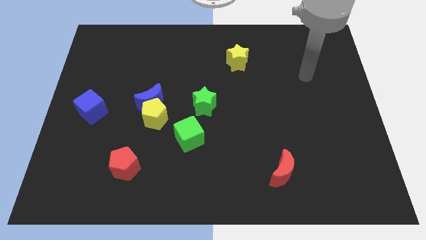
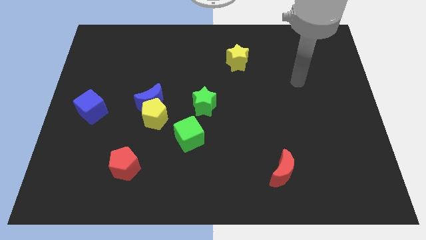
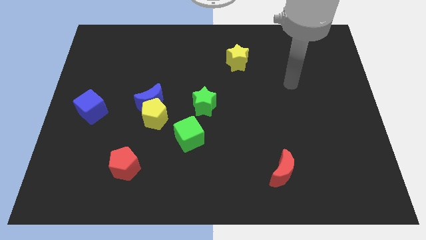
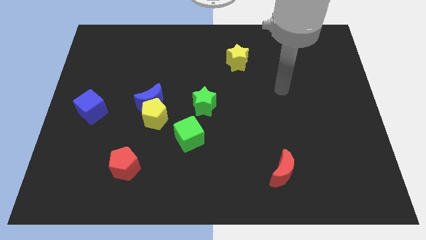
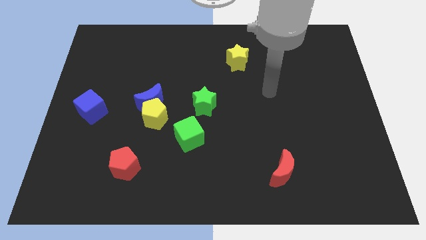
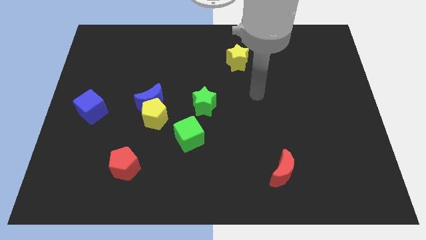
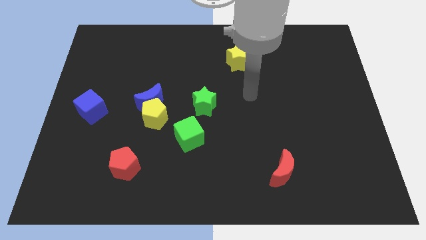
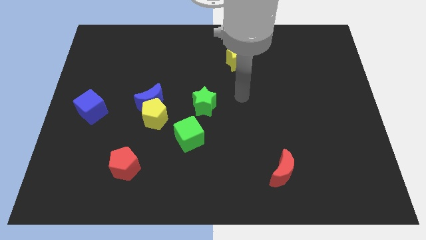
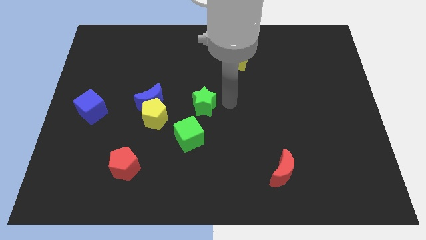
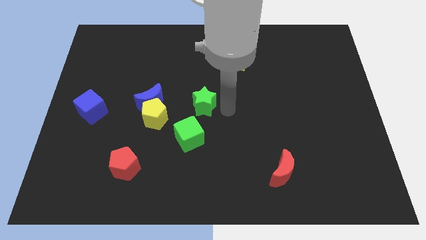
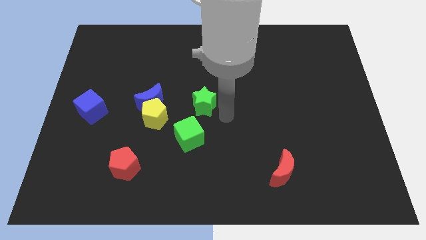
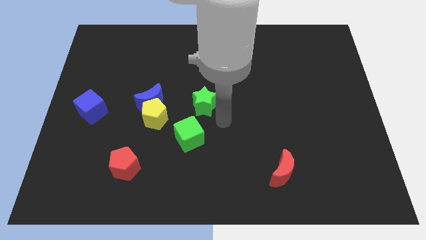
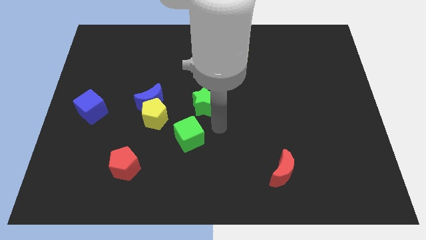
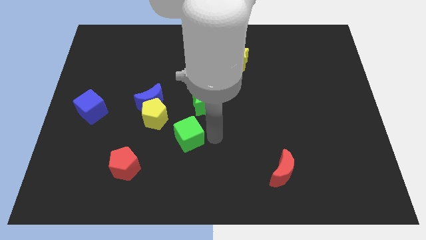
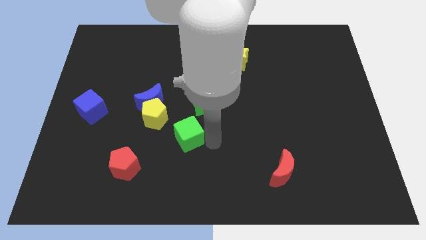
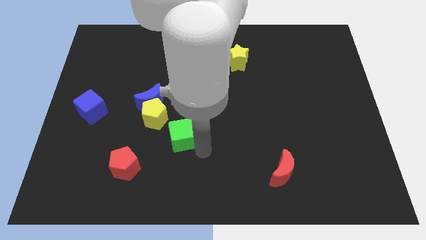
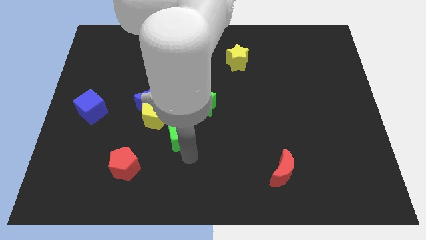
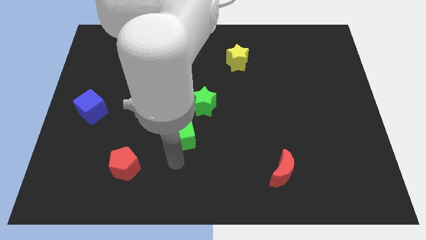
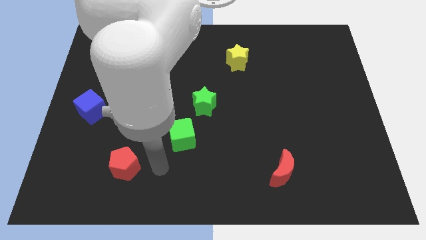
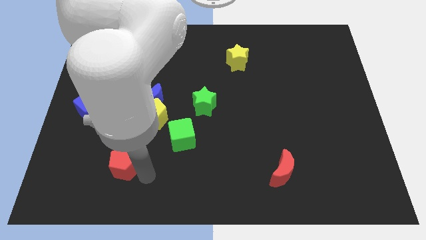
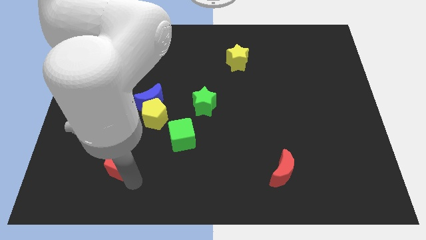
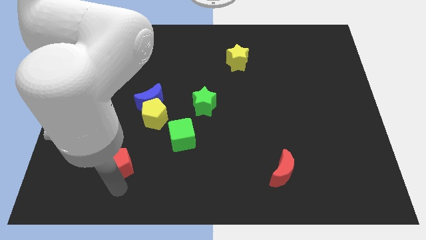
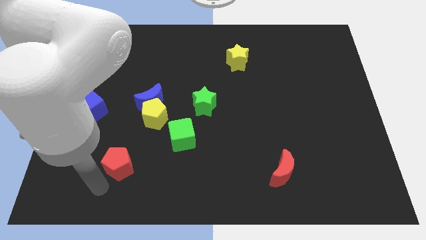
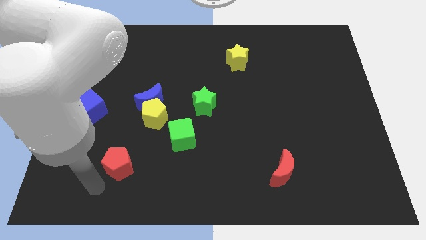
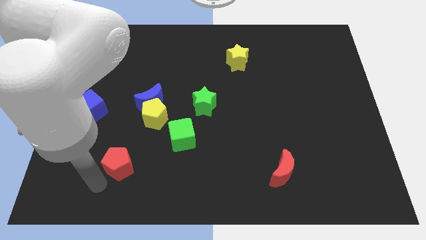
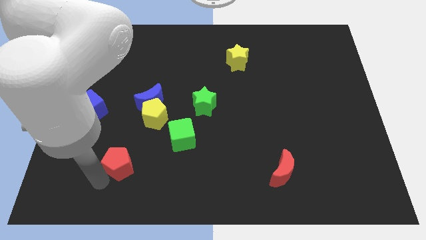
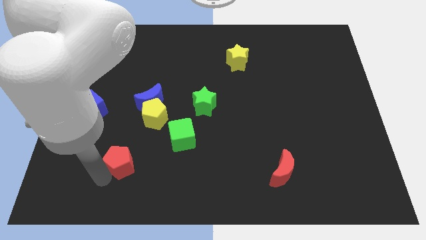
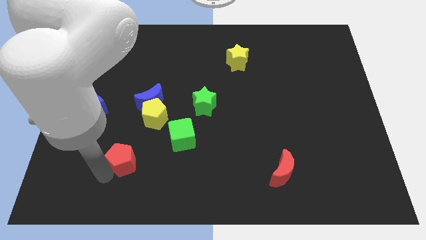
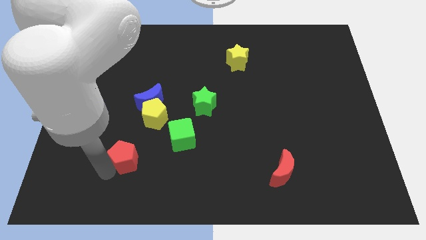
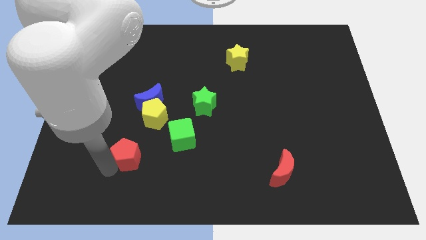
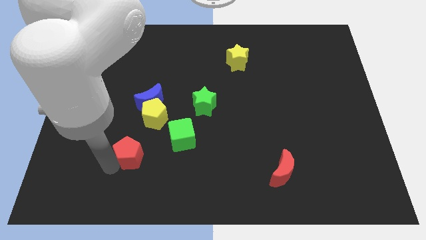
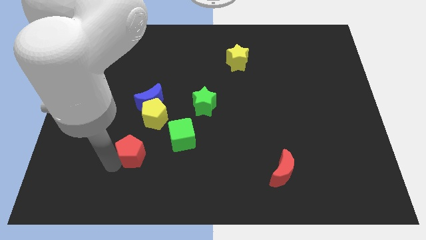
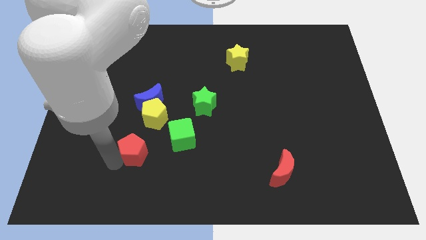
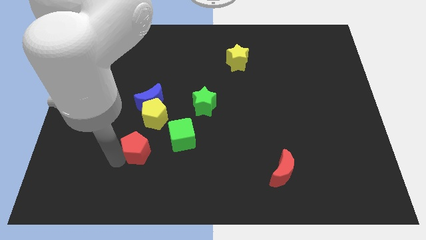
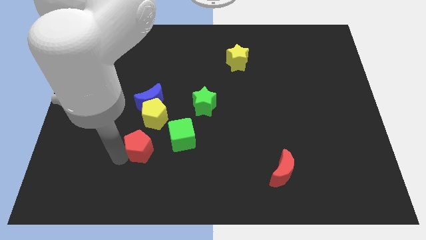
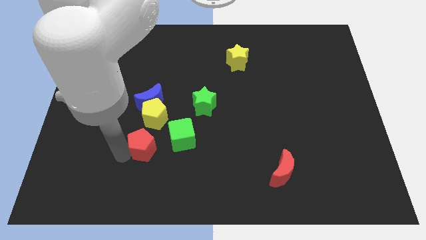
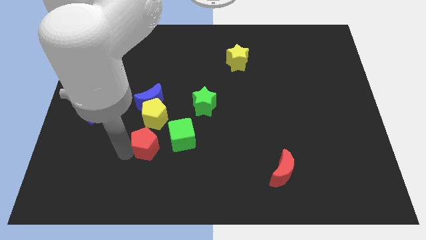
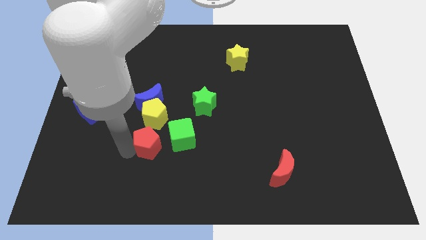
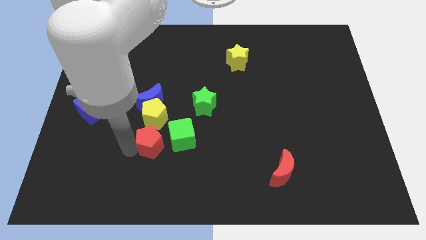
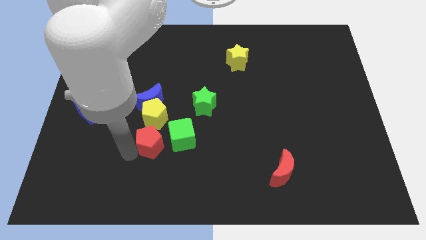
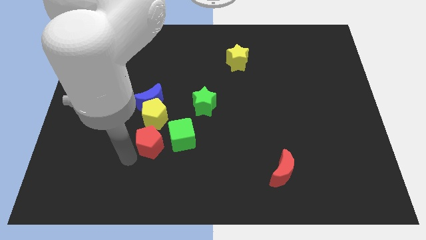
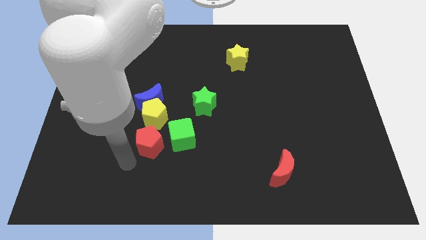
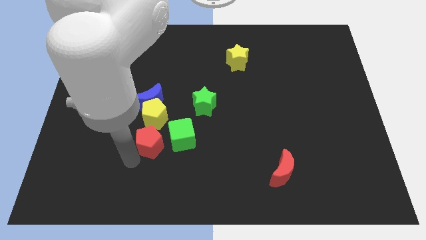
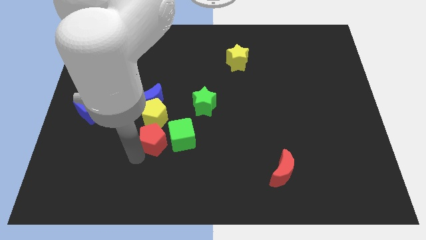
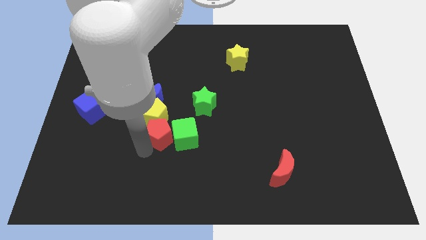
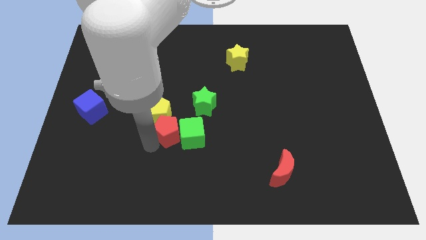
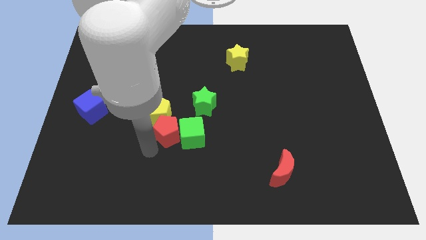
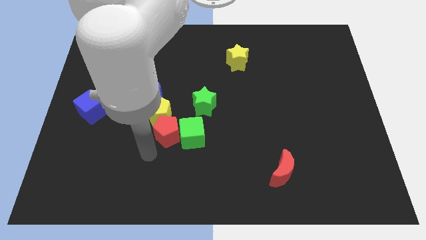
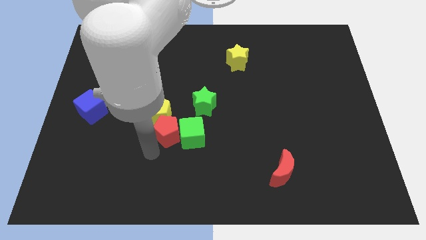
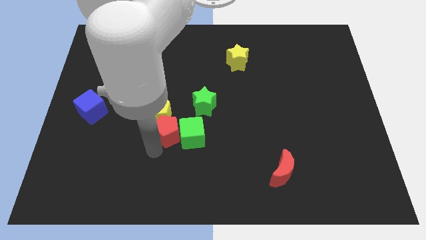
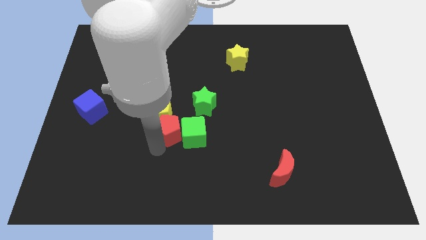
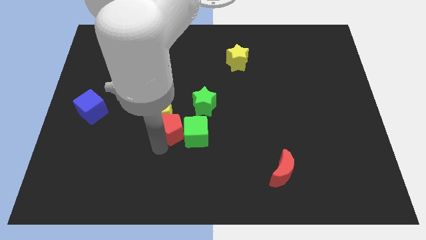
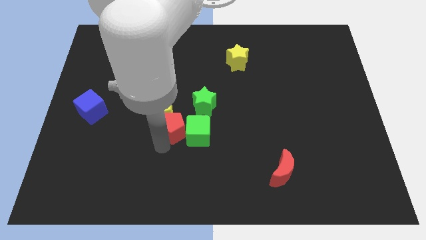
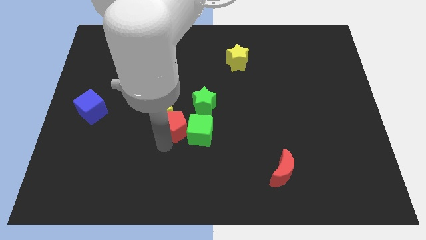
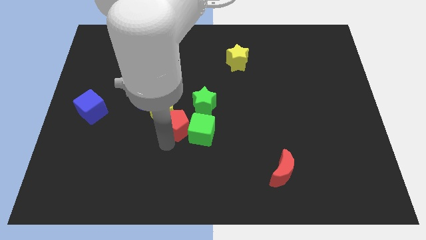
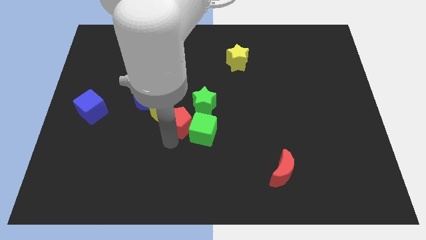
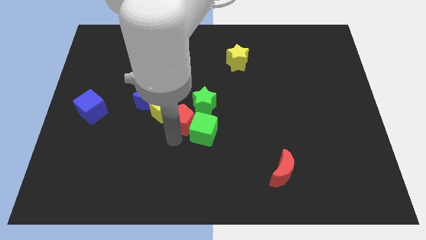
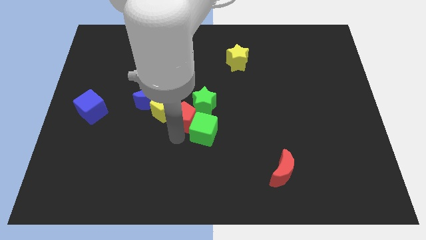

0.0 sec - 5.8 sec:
slide the red pentagon next to the green star

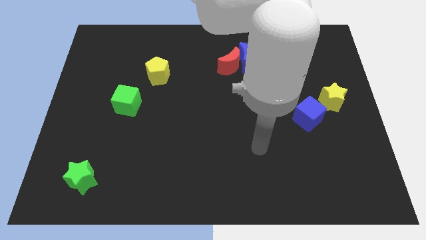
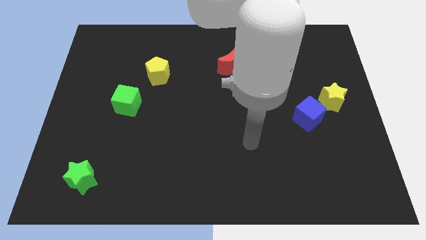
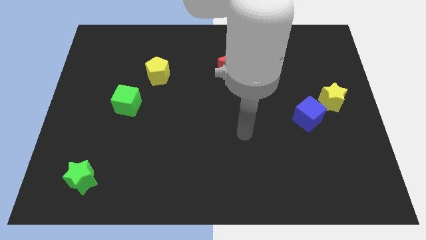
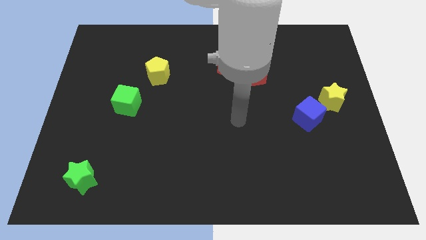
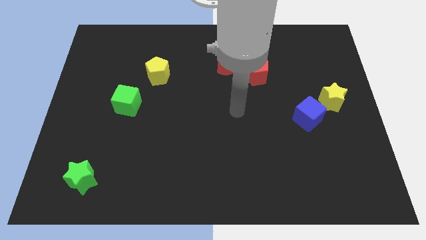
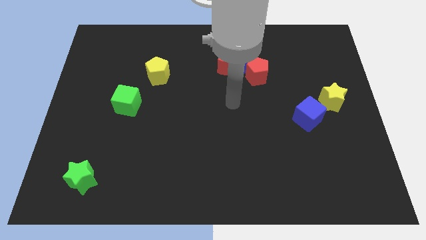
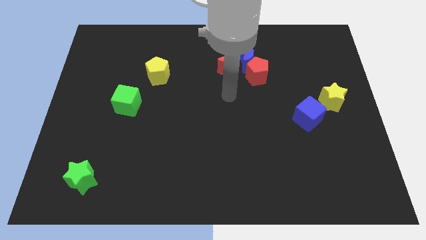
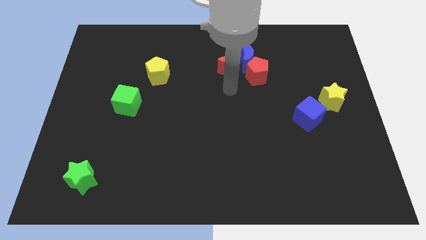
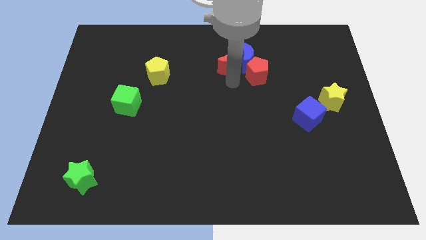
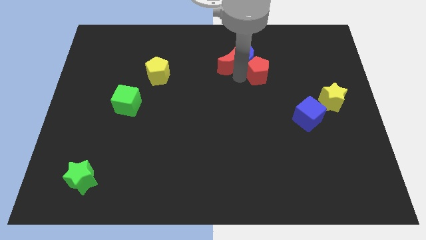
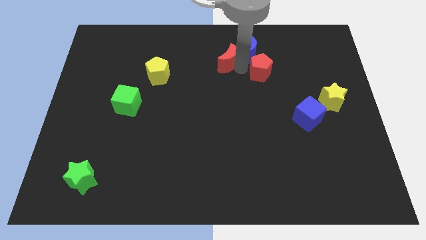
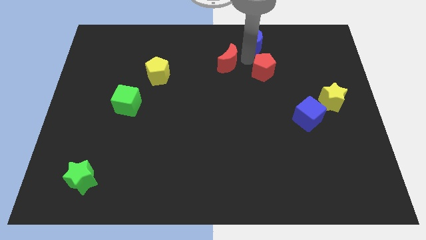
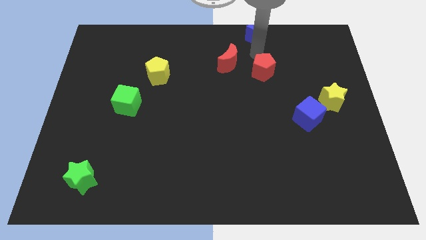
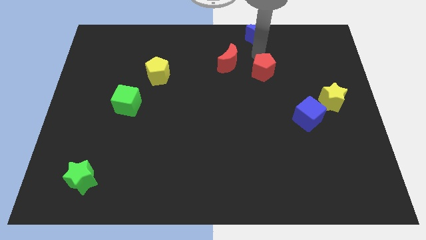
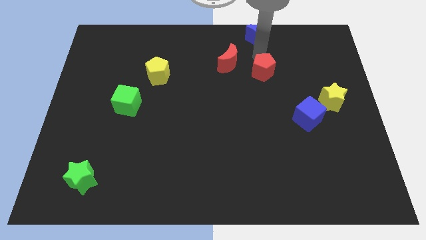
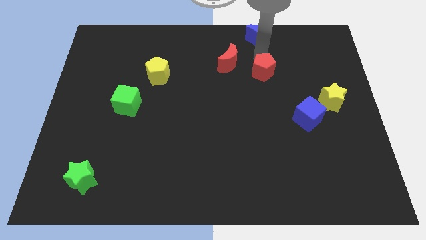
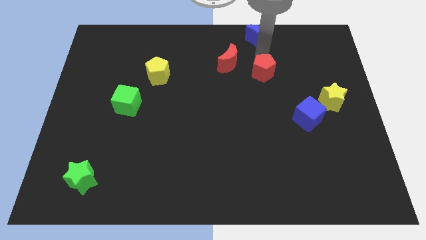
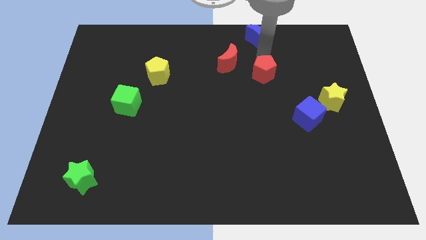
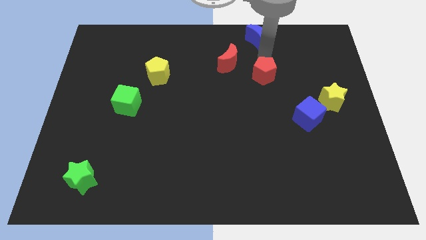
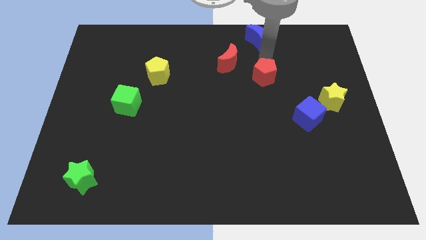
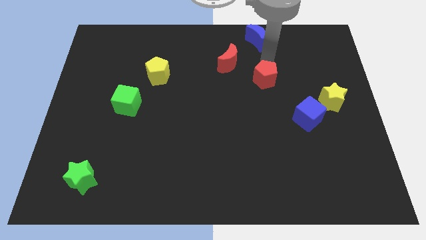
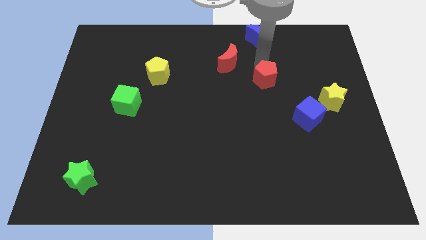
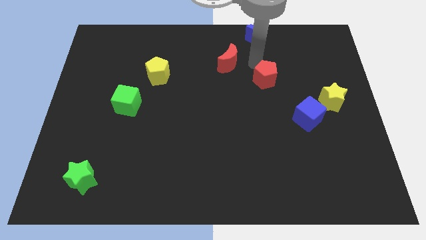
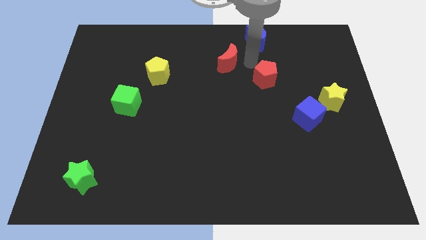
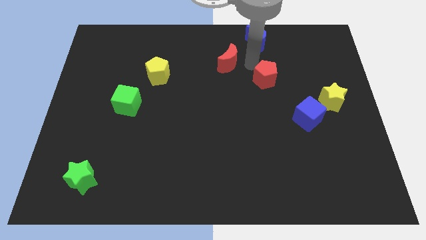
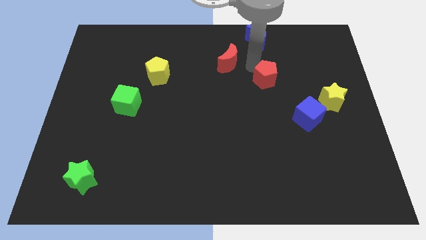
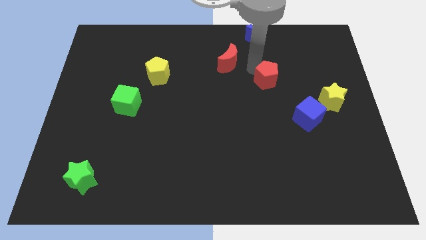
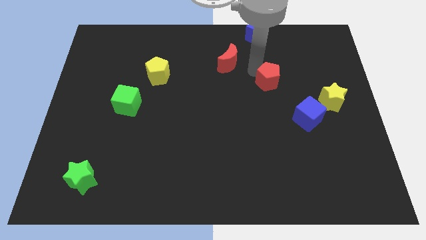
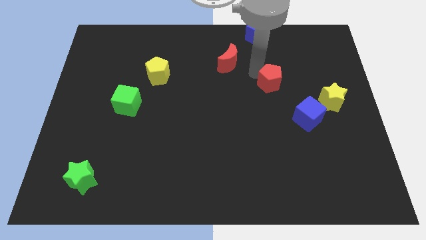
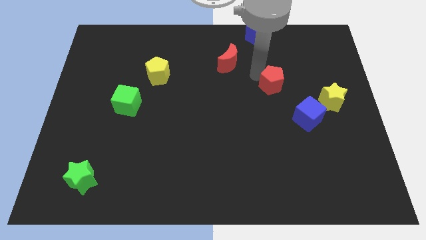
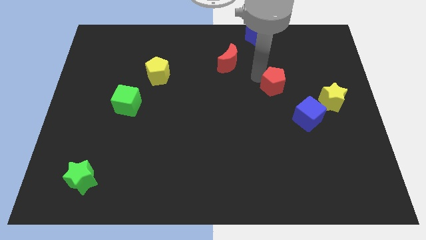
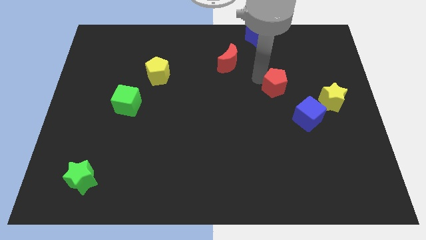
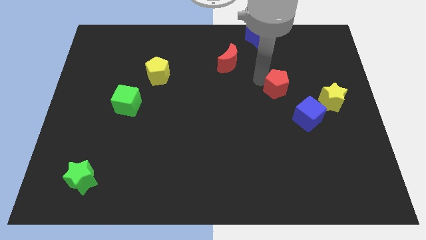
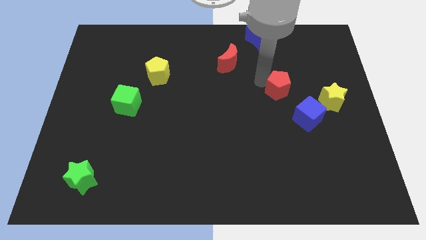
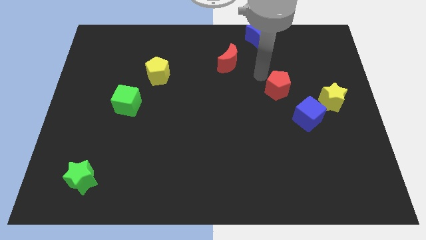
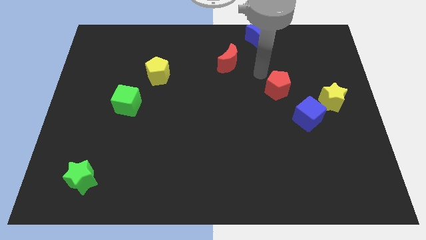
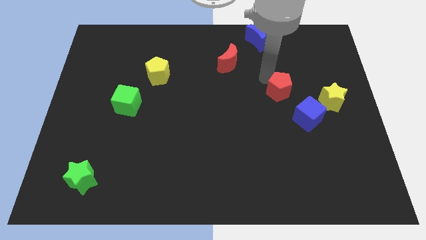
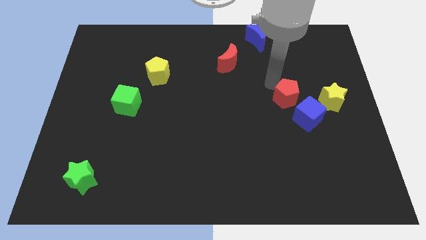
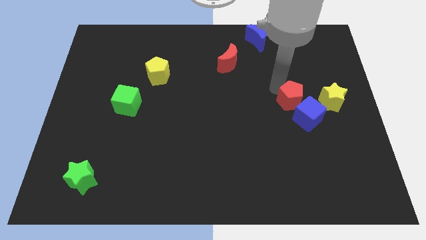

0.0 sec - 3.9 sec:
put the red pentagon close to the blue cube
